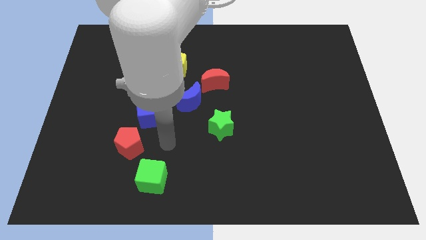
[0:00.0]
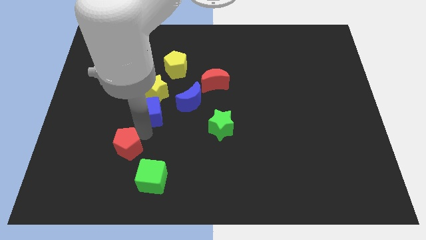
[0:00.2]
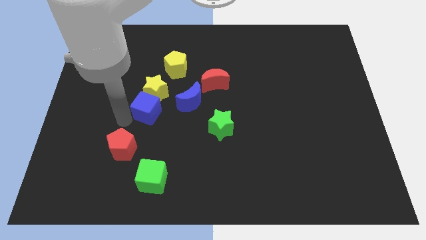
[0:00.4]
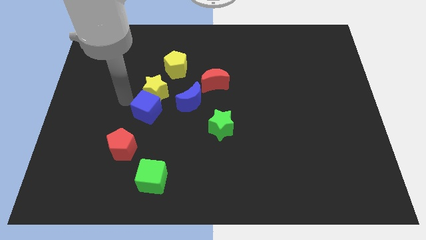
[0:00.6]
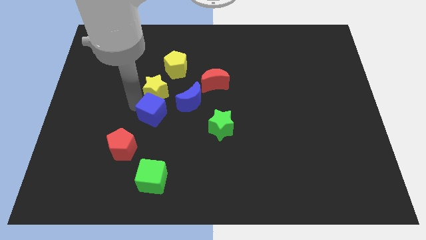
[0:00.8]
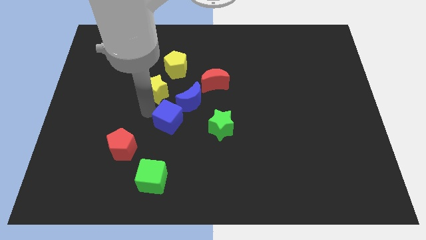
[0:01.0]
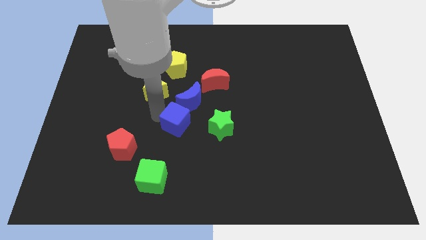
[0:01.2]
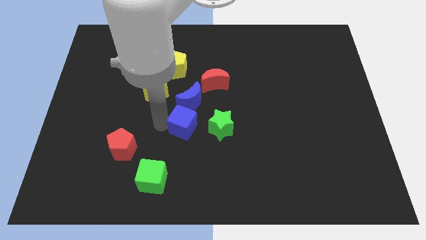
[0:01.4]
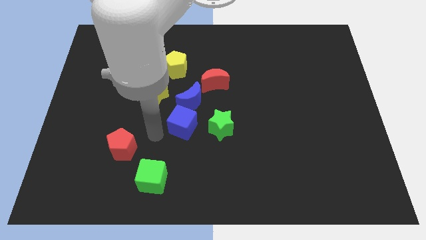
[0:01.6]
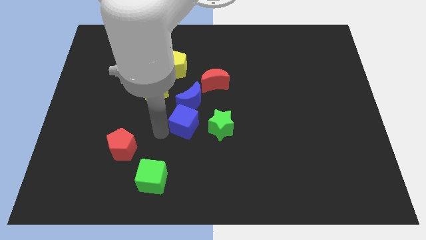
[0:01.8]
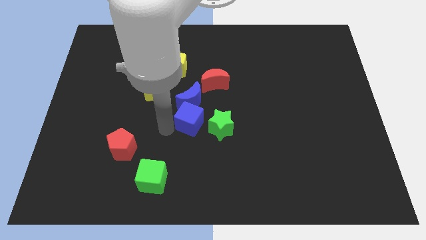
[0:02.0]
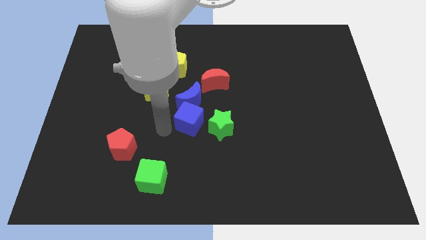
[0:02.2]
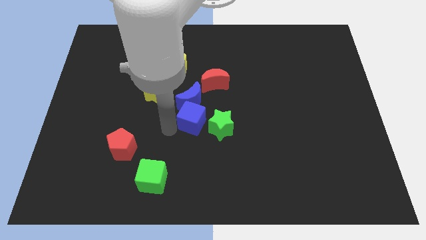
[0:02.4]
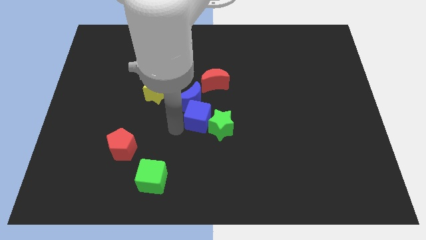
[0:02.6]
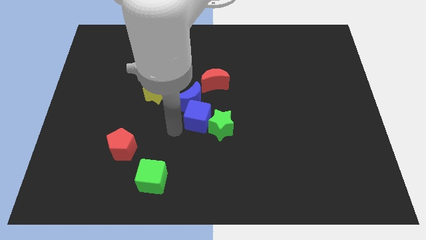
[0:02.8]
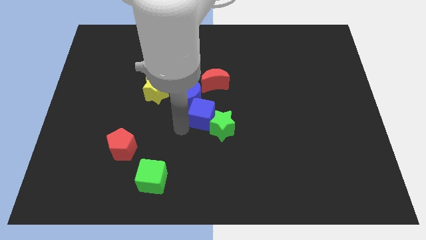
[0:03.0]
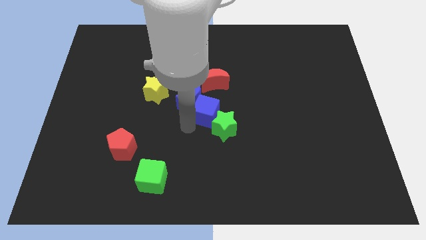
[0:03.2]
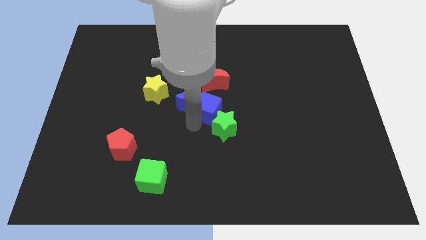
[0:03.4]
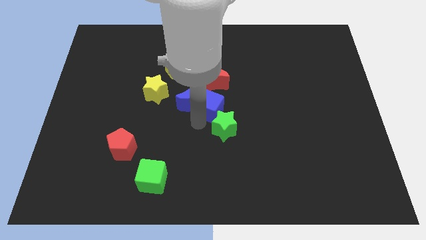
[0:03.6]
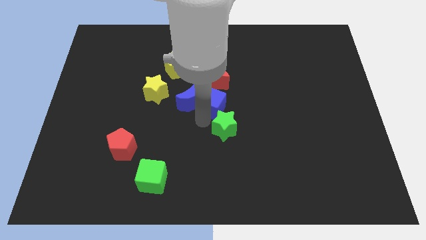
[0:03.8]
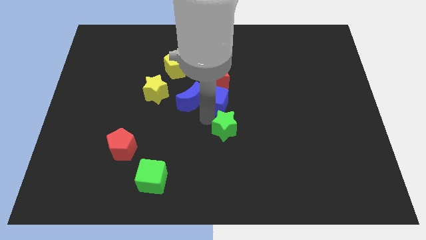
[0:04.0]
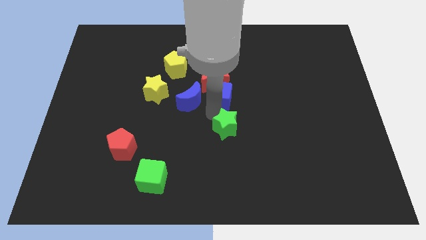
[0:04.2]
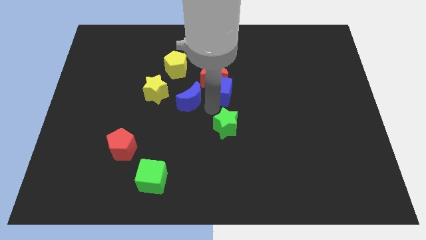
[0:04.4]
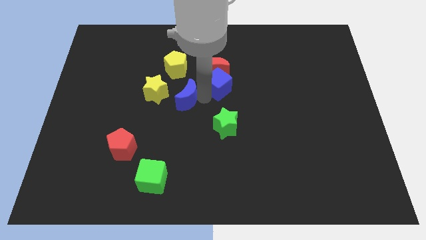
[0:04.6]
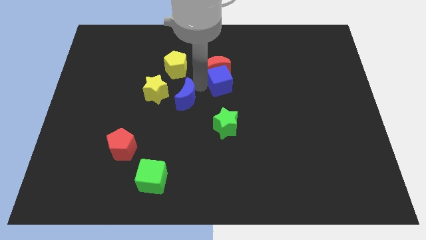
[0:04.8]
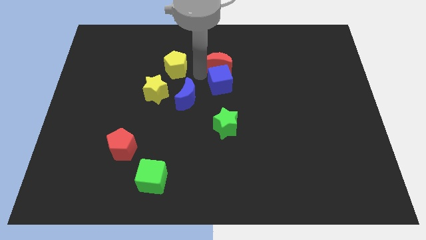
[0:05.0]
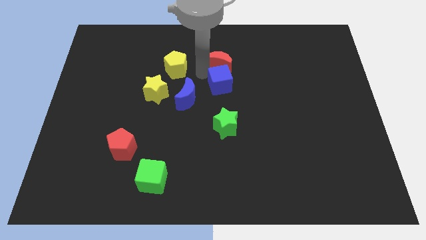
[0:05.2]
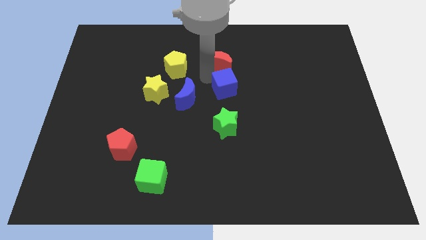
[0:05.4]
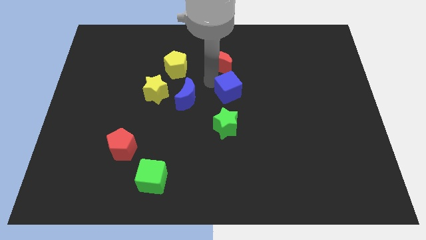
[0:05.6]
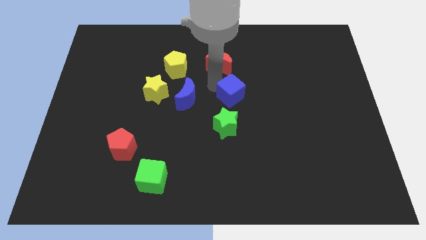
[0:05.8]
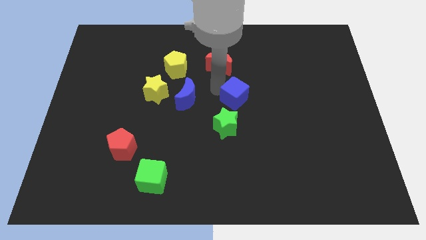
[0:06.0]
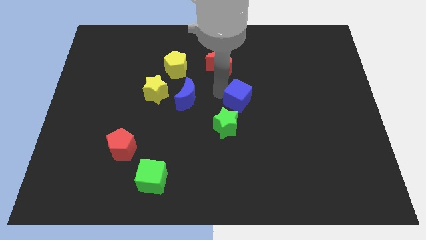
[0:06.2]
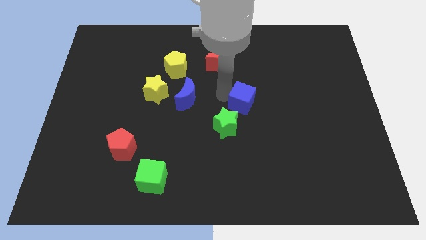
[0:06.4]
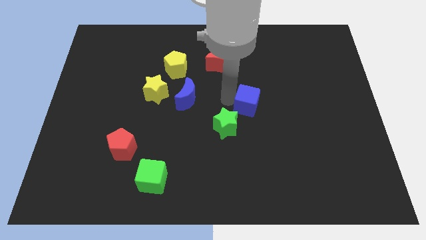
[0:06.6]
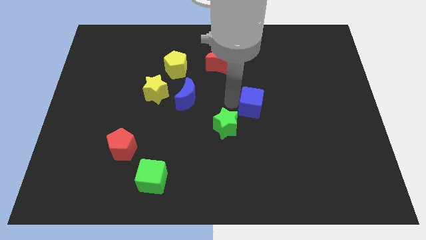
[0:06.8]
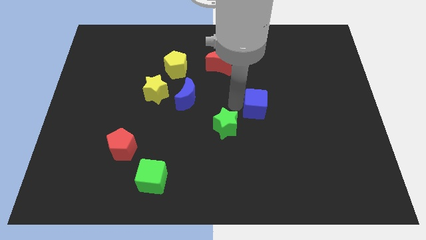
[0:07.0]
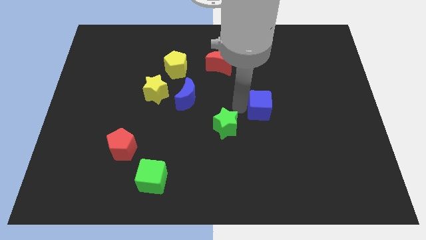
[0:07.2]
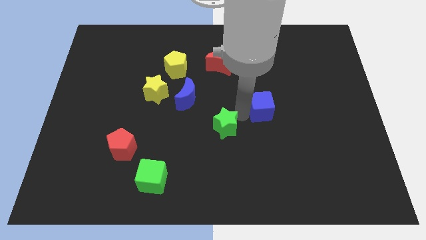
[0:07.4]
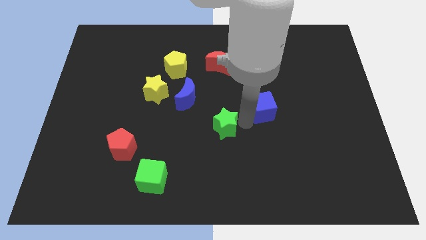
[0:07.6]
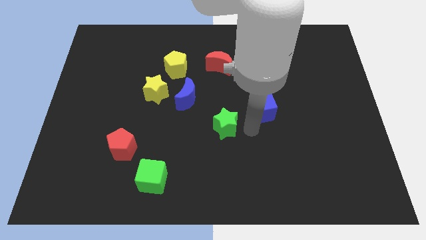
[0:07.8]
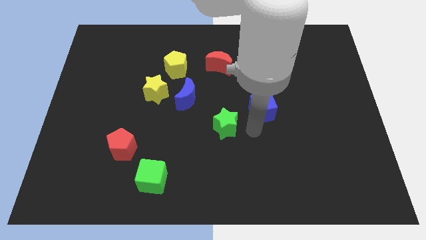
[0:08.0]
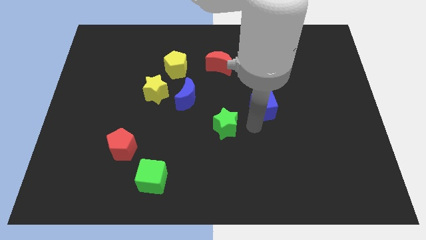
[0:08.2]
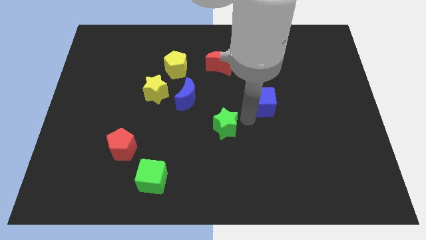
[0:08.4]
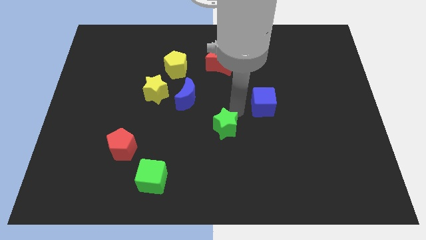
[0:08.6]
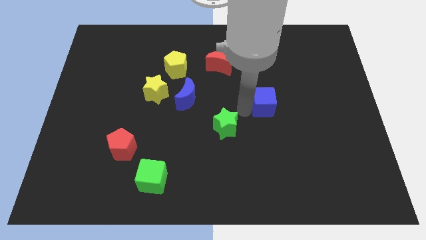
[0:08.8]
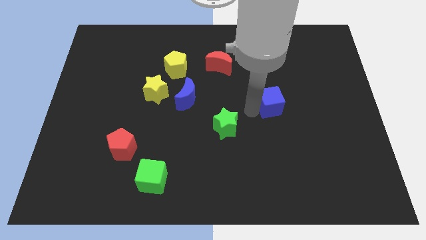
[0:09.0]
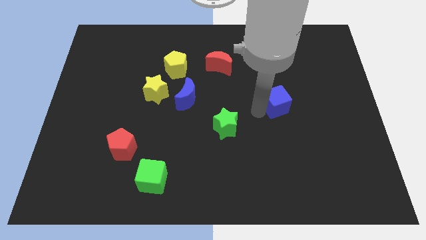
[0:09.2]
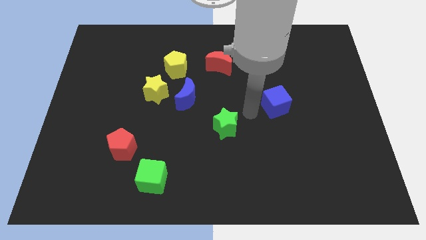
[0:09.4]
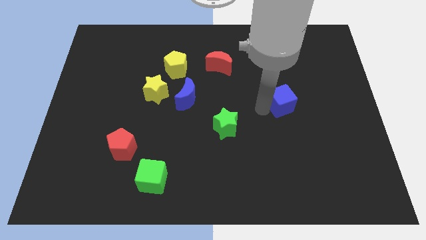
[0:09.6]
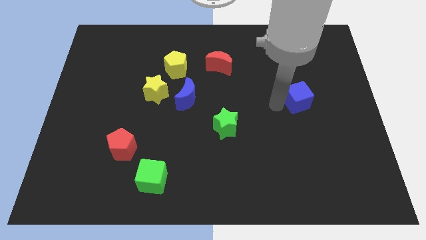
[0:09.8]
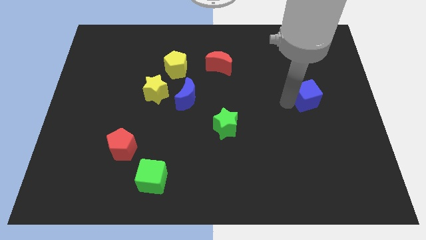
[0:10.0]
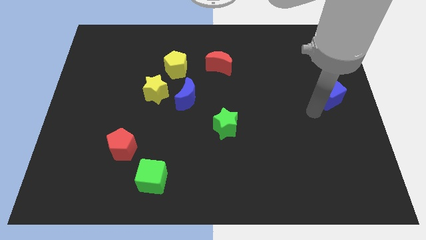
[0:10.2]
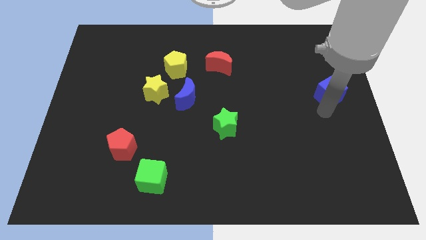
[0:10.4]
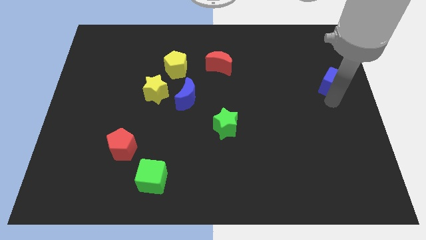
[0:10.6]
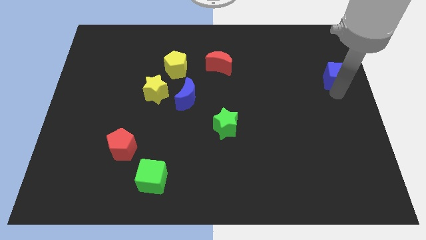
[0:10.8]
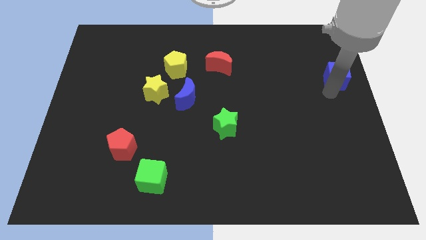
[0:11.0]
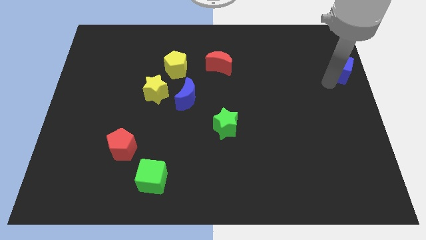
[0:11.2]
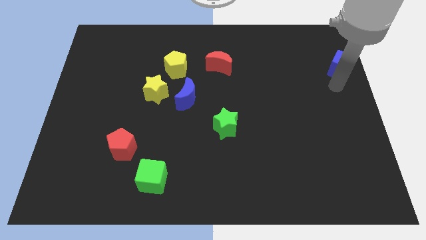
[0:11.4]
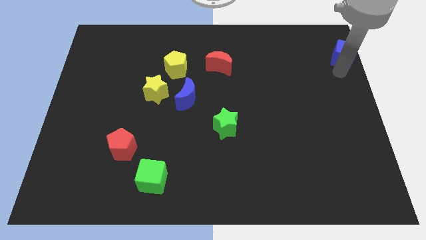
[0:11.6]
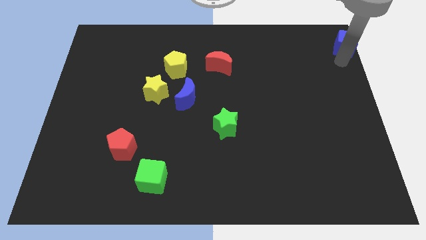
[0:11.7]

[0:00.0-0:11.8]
put the blue cube to the top right corner

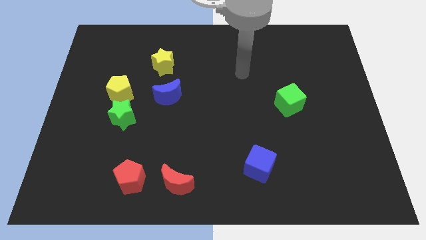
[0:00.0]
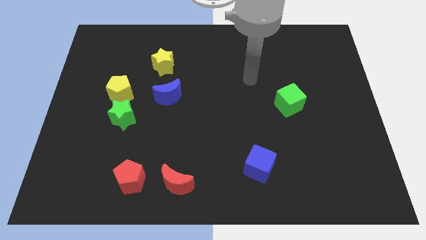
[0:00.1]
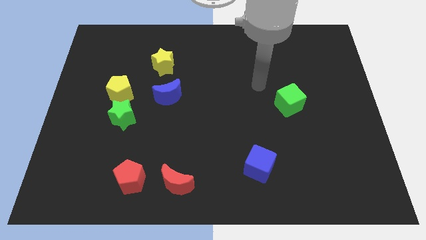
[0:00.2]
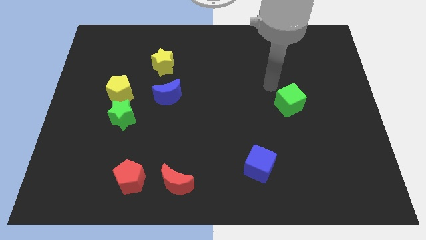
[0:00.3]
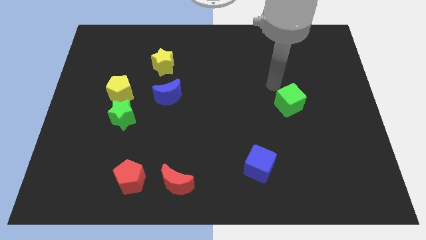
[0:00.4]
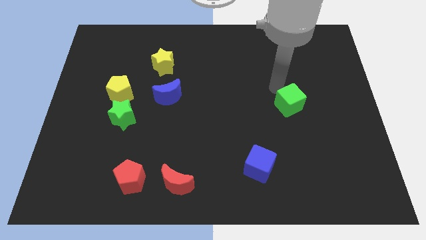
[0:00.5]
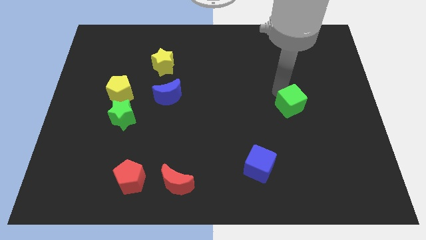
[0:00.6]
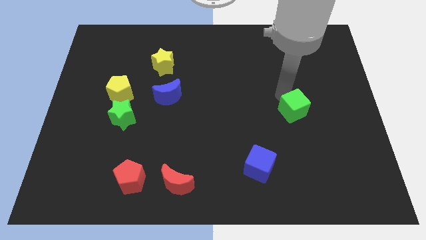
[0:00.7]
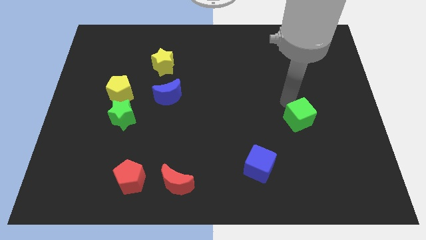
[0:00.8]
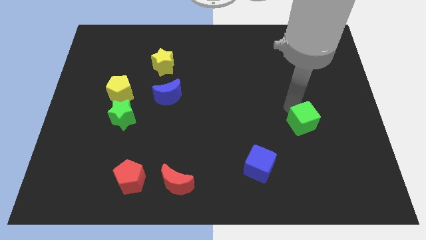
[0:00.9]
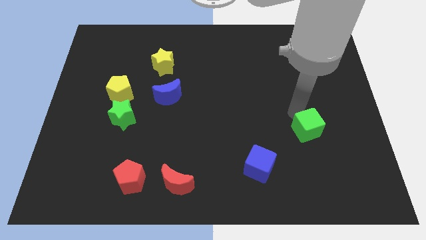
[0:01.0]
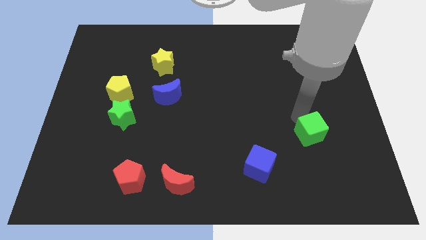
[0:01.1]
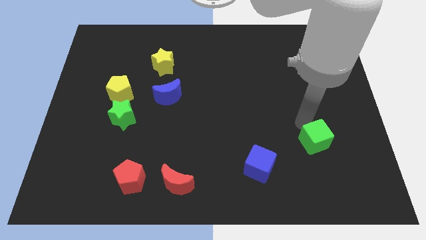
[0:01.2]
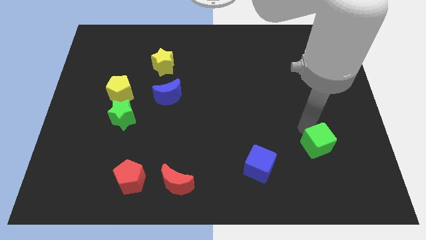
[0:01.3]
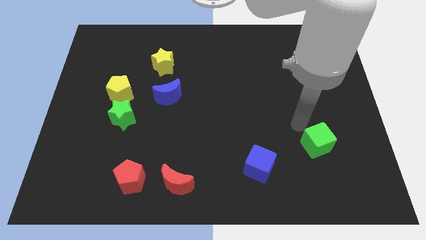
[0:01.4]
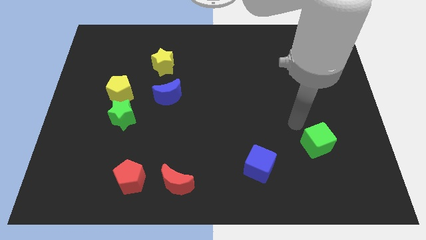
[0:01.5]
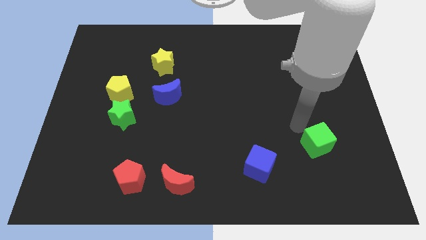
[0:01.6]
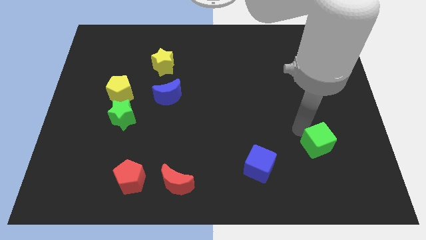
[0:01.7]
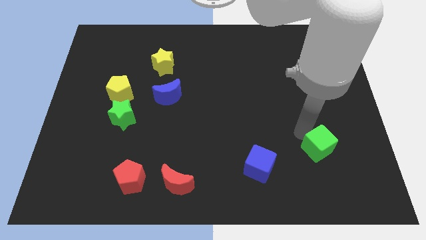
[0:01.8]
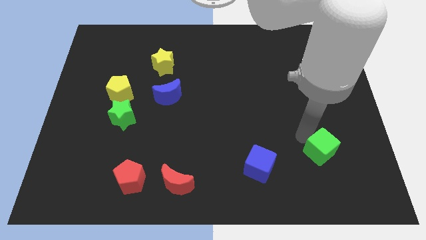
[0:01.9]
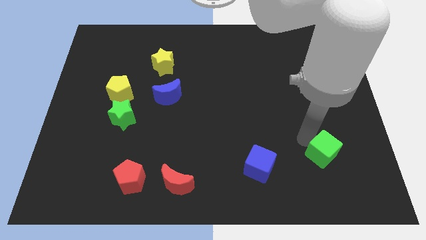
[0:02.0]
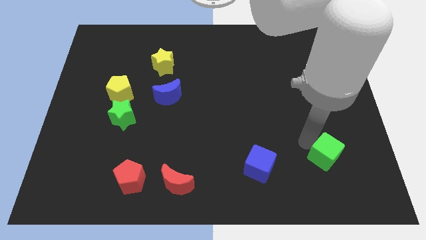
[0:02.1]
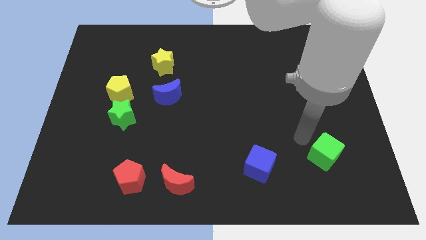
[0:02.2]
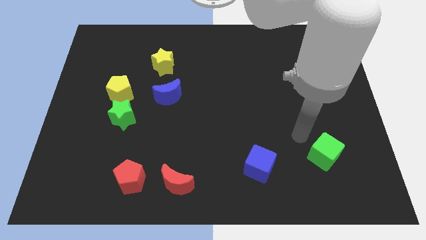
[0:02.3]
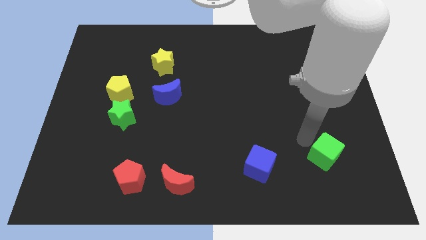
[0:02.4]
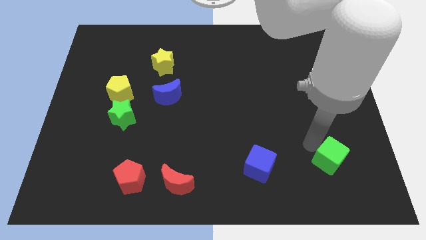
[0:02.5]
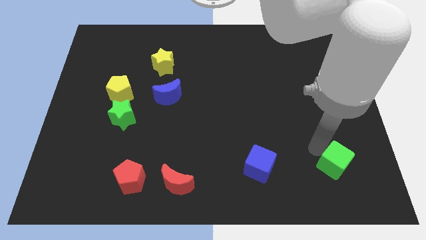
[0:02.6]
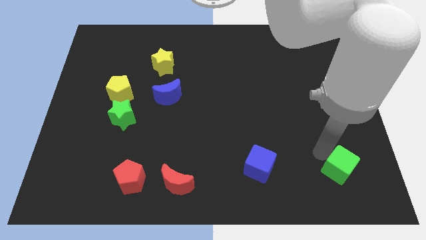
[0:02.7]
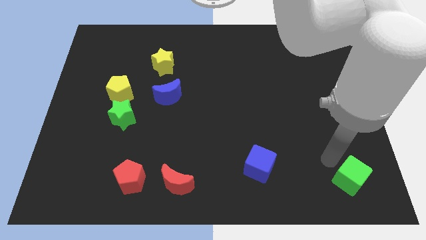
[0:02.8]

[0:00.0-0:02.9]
slide the green cube to the bottom right
